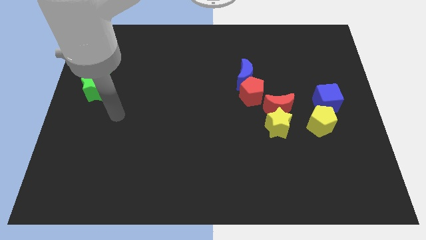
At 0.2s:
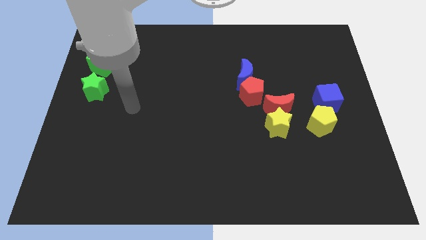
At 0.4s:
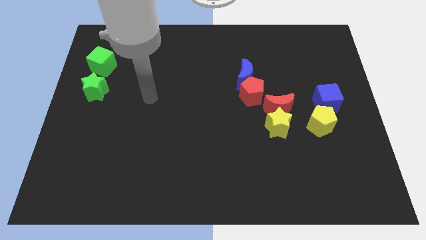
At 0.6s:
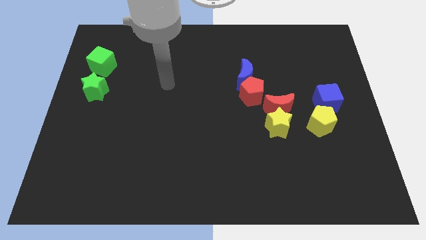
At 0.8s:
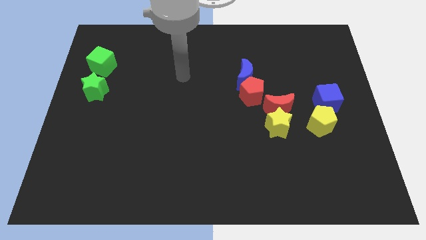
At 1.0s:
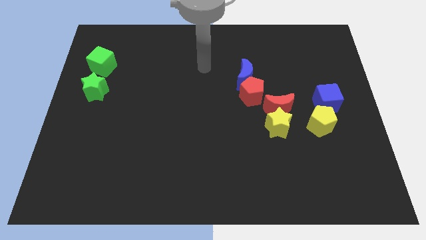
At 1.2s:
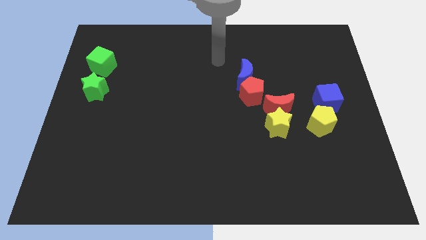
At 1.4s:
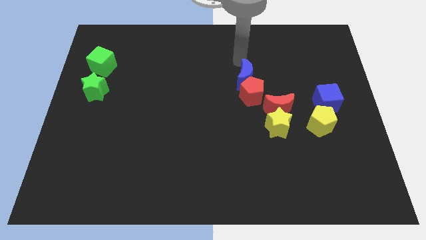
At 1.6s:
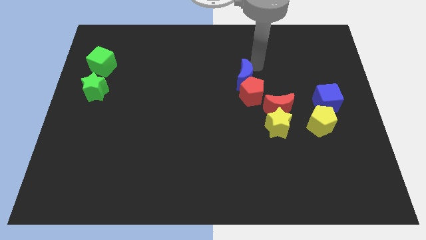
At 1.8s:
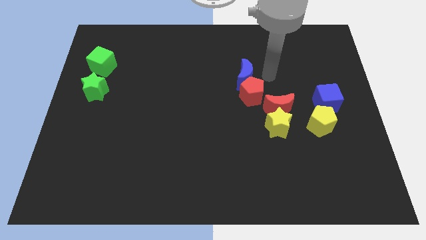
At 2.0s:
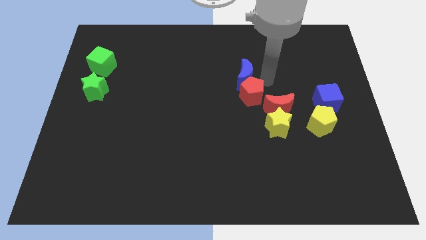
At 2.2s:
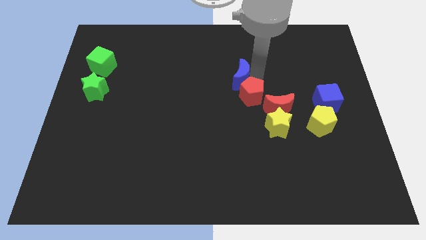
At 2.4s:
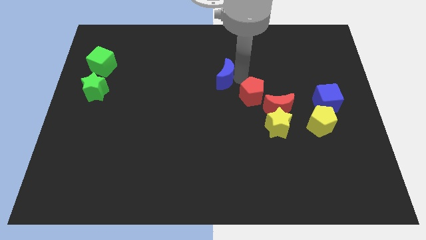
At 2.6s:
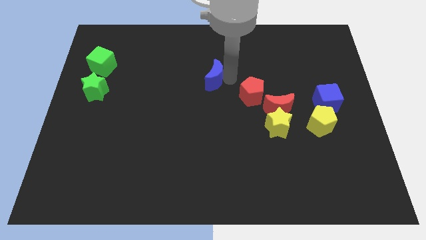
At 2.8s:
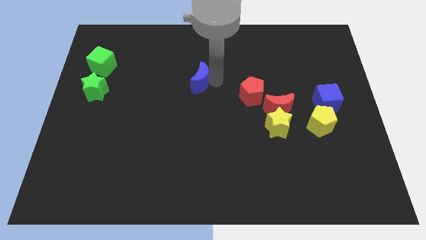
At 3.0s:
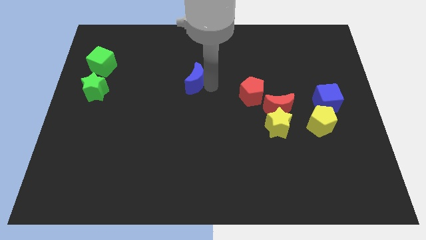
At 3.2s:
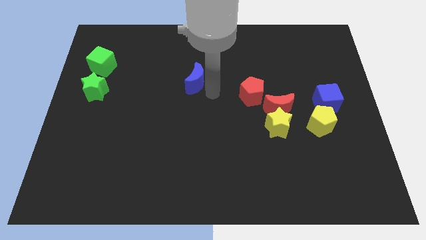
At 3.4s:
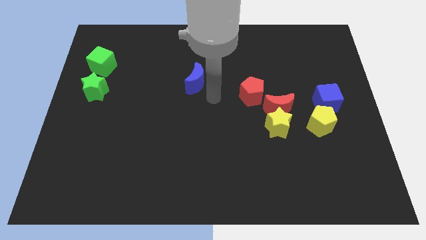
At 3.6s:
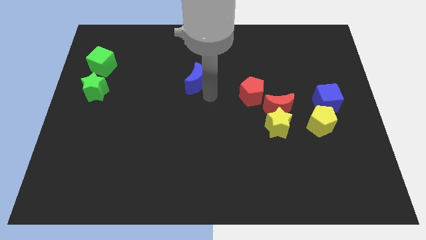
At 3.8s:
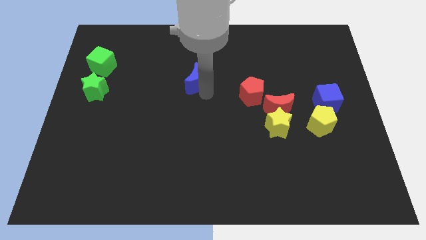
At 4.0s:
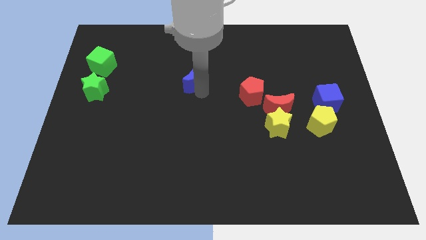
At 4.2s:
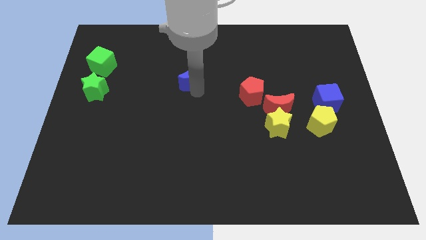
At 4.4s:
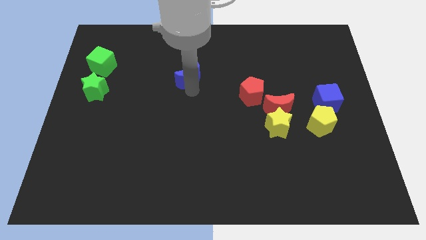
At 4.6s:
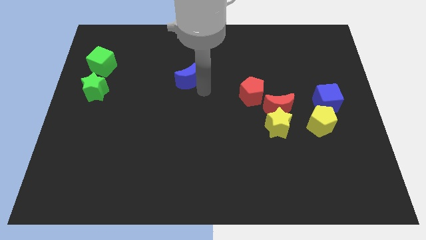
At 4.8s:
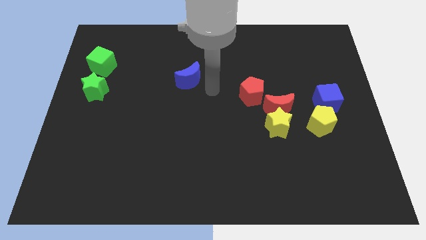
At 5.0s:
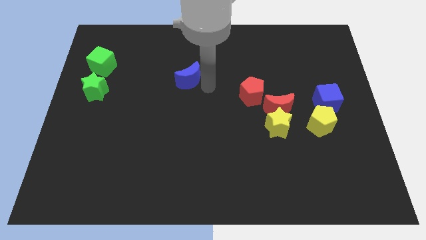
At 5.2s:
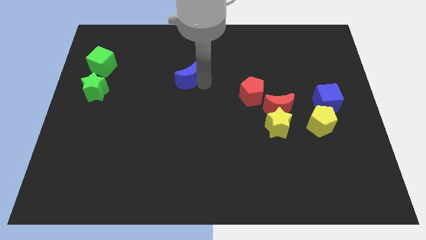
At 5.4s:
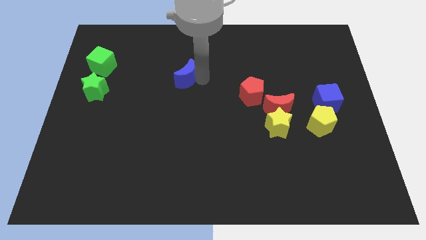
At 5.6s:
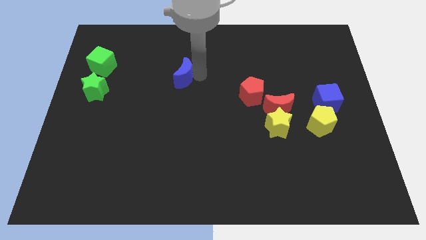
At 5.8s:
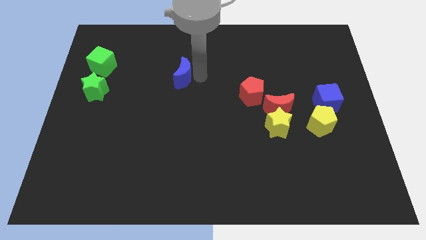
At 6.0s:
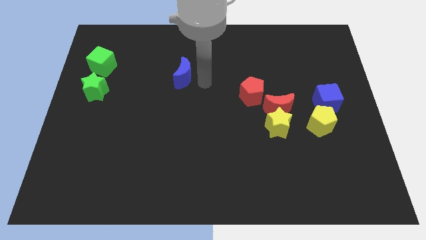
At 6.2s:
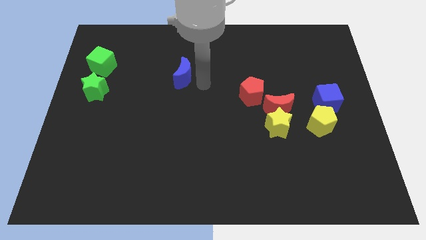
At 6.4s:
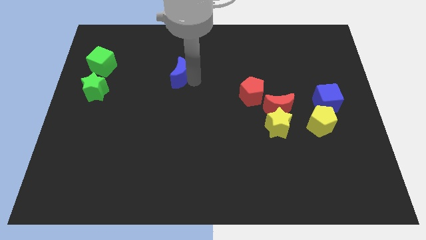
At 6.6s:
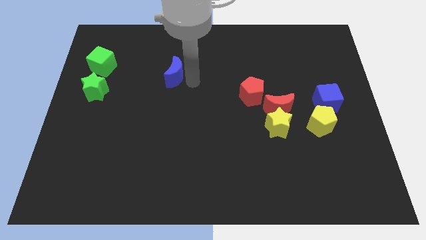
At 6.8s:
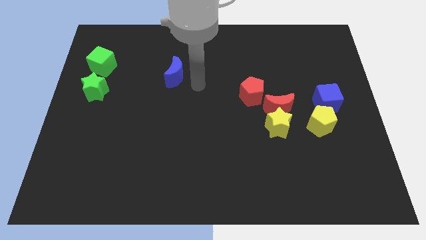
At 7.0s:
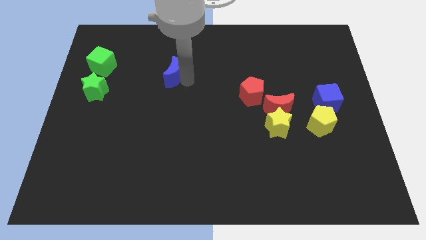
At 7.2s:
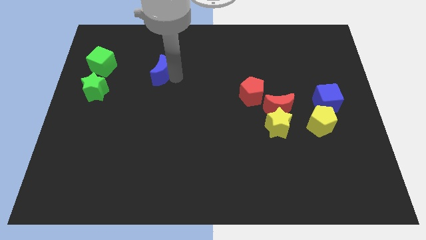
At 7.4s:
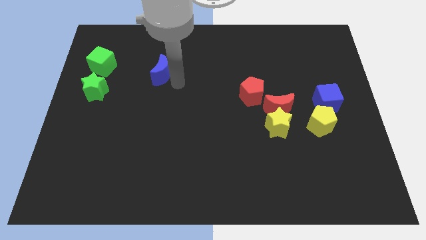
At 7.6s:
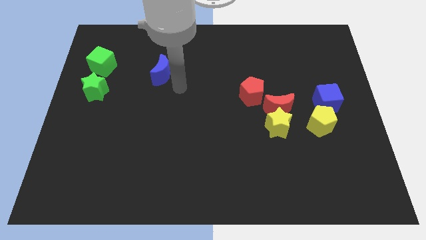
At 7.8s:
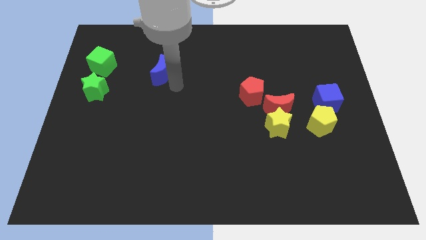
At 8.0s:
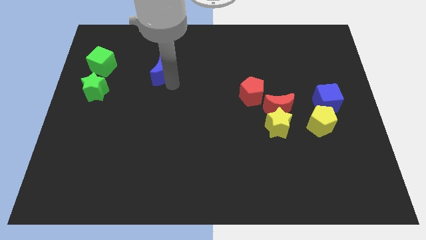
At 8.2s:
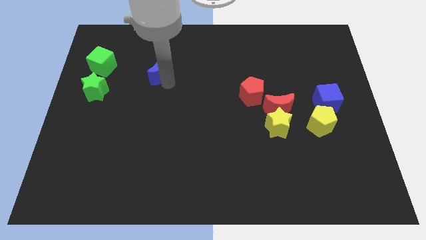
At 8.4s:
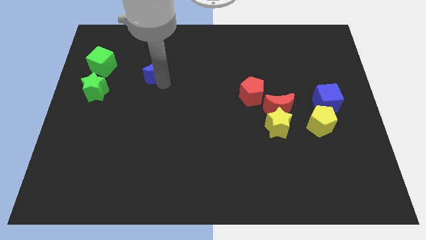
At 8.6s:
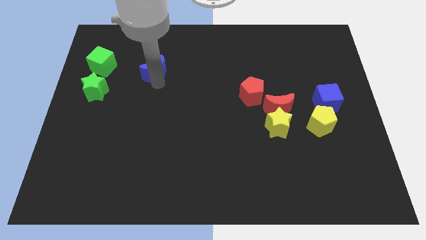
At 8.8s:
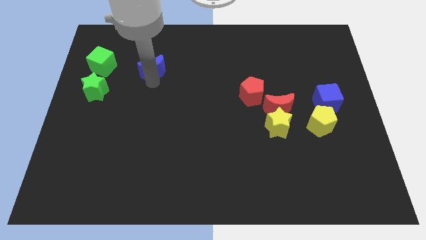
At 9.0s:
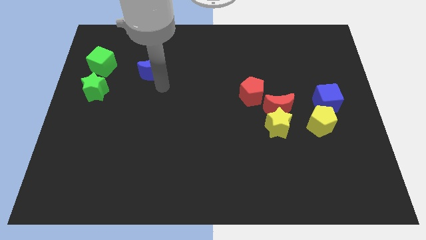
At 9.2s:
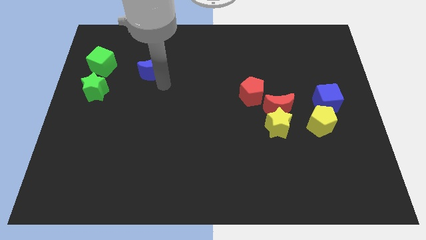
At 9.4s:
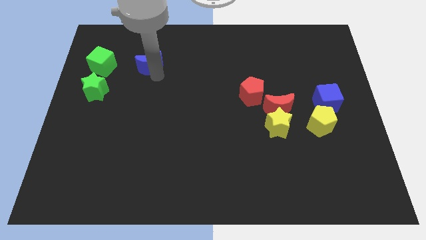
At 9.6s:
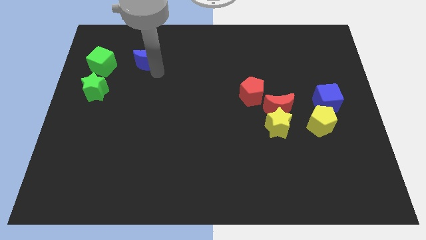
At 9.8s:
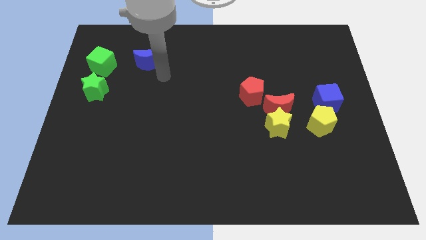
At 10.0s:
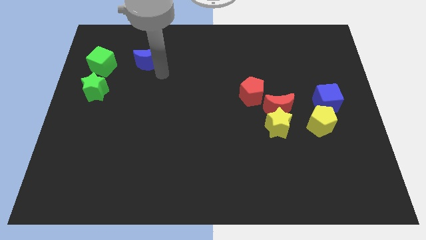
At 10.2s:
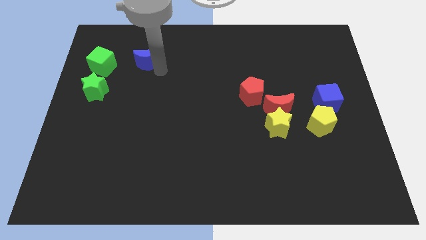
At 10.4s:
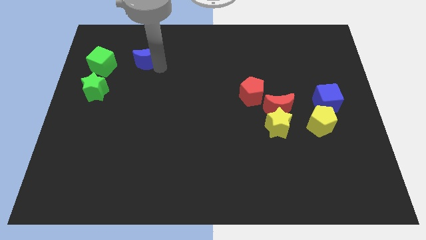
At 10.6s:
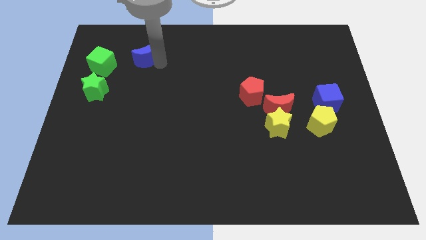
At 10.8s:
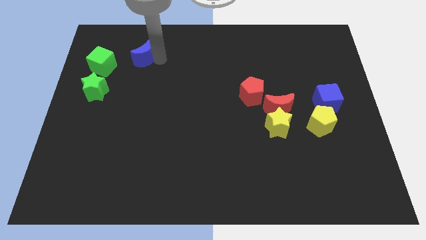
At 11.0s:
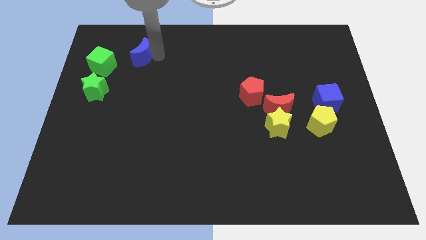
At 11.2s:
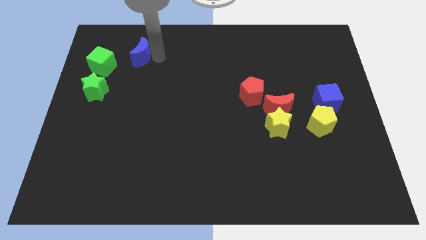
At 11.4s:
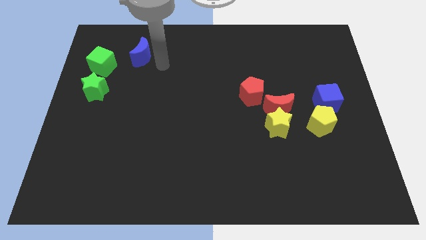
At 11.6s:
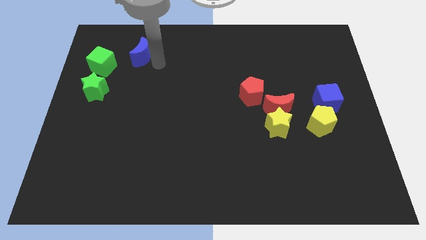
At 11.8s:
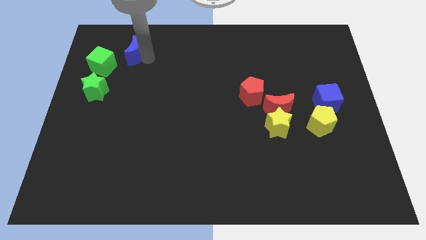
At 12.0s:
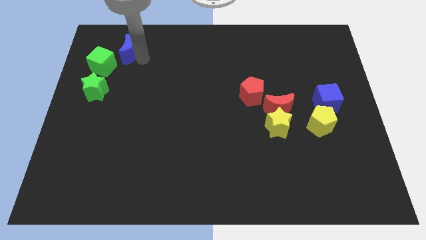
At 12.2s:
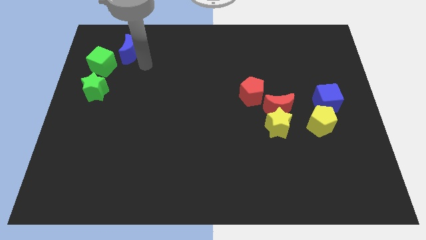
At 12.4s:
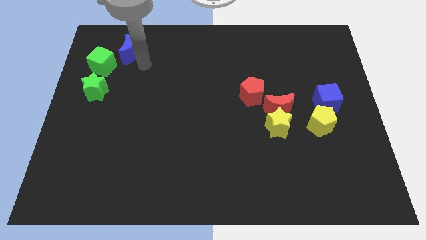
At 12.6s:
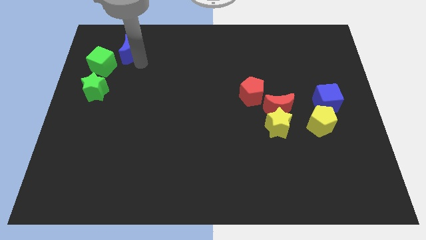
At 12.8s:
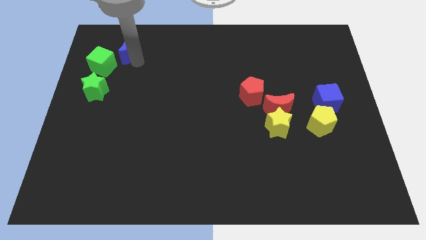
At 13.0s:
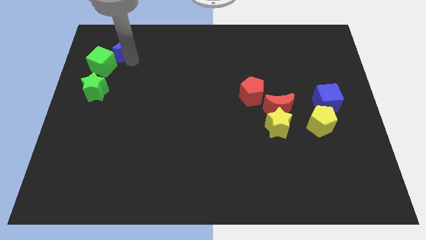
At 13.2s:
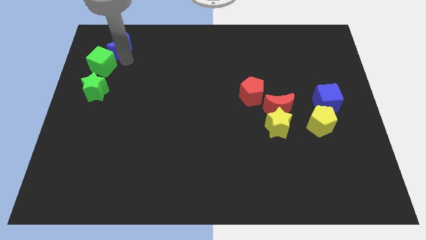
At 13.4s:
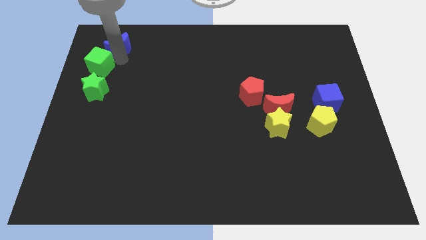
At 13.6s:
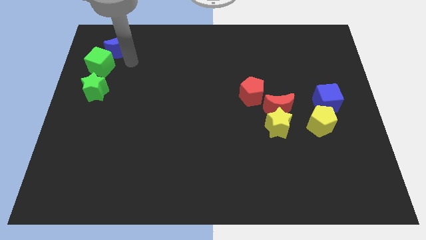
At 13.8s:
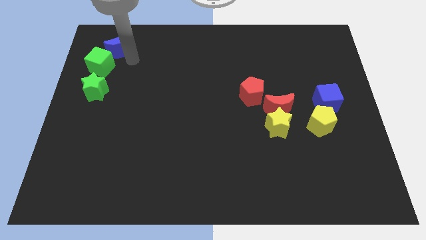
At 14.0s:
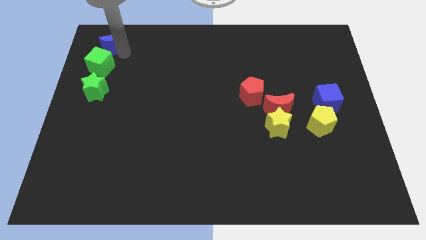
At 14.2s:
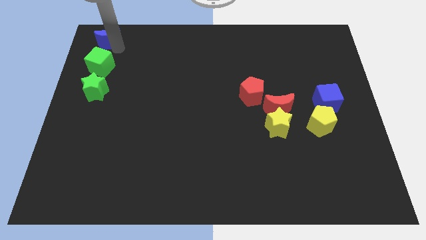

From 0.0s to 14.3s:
push the blue moon to the top left corner
